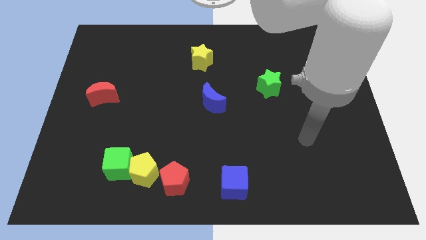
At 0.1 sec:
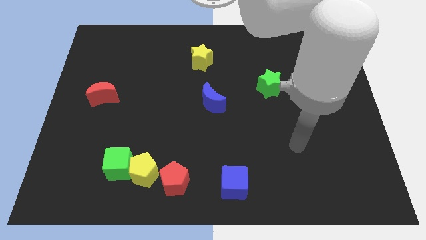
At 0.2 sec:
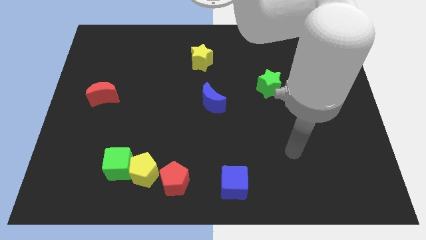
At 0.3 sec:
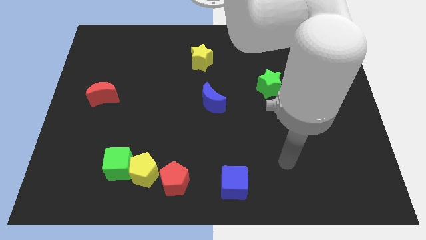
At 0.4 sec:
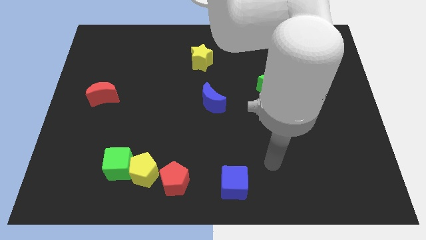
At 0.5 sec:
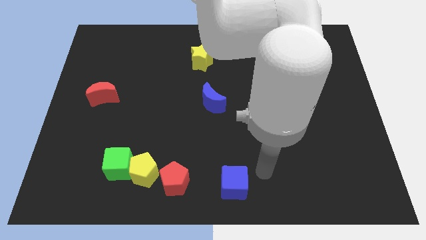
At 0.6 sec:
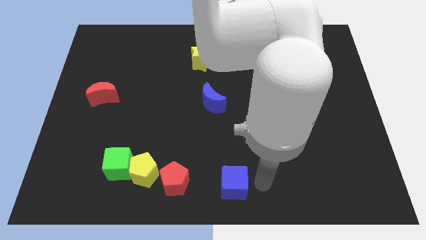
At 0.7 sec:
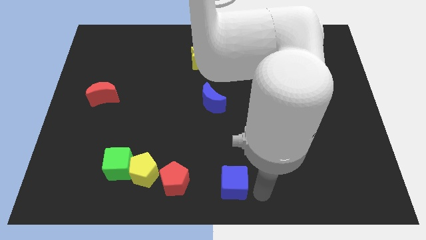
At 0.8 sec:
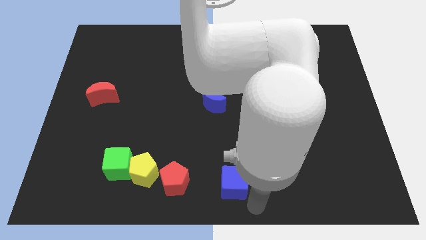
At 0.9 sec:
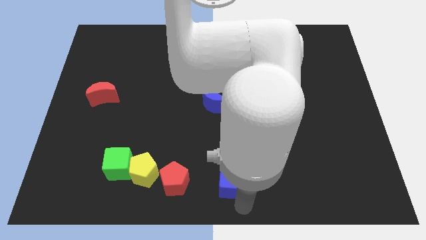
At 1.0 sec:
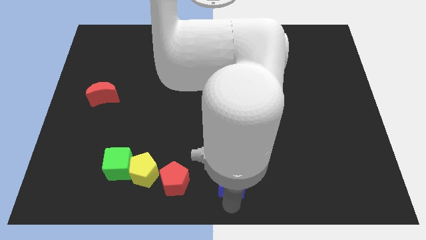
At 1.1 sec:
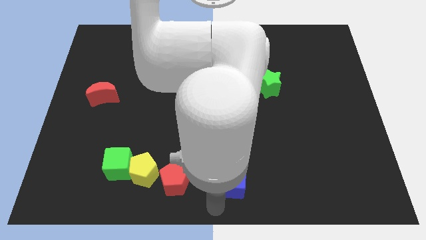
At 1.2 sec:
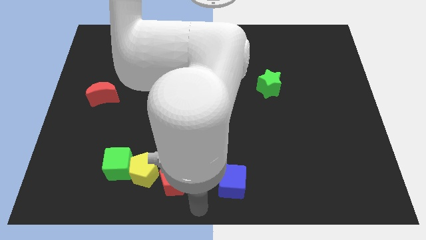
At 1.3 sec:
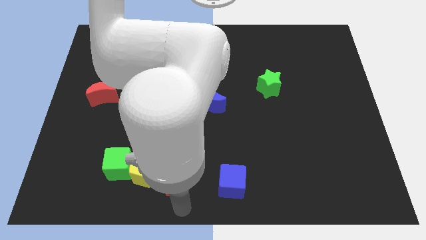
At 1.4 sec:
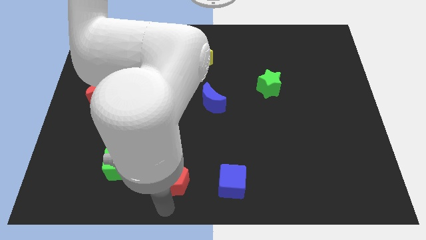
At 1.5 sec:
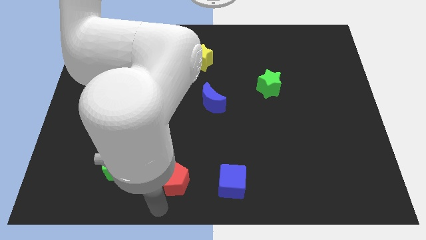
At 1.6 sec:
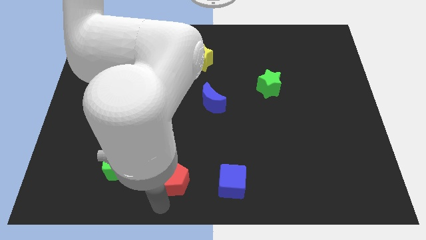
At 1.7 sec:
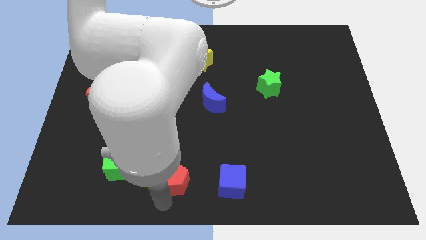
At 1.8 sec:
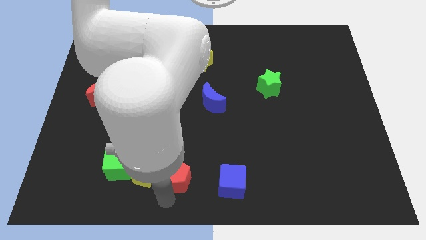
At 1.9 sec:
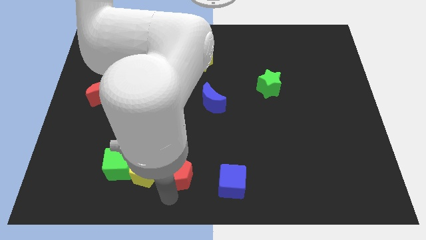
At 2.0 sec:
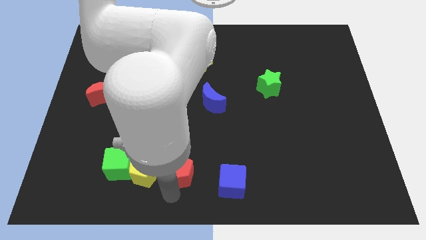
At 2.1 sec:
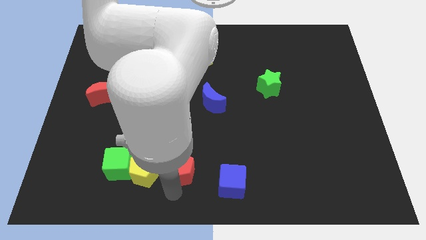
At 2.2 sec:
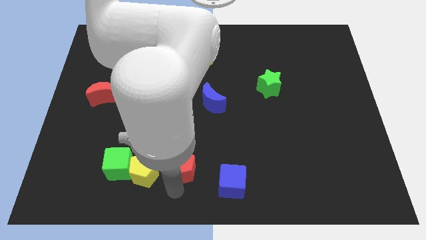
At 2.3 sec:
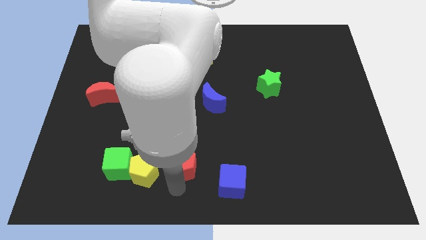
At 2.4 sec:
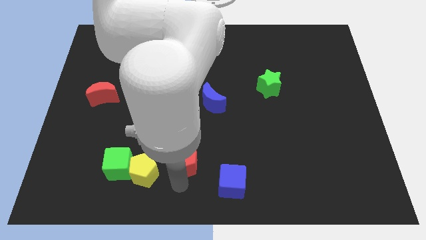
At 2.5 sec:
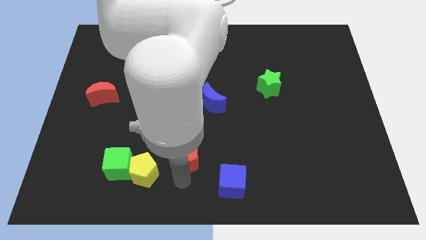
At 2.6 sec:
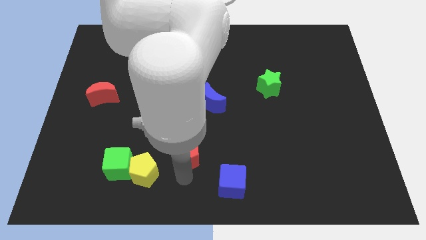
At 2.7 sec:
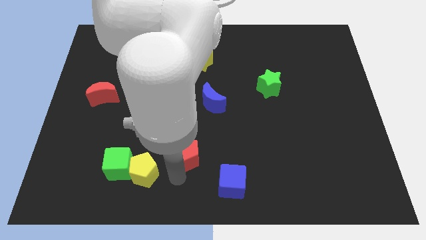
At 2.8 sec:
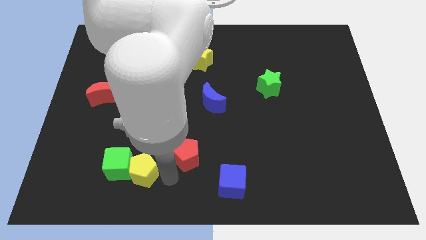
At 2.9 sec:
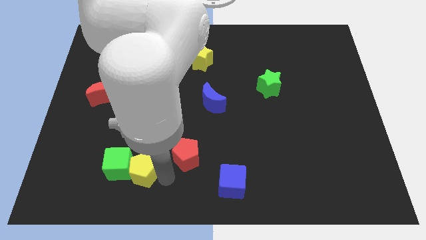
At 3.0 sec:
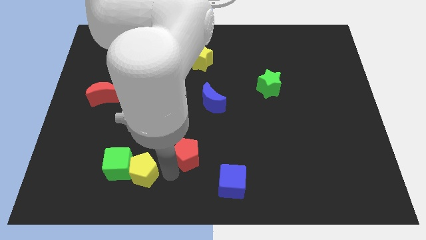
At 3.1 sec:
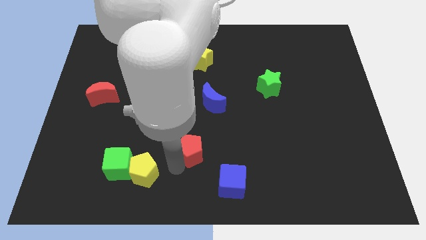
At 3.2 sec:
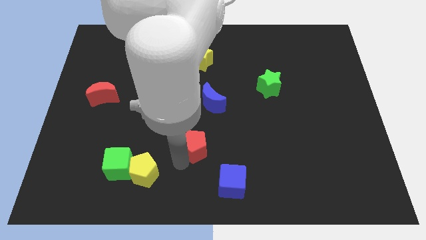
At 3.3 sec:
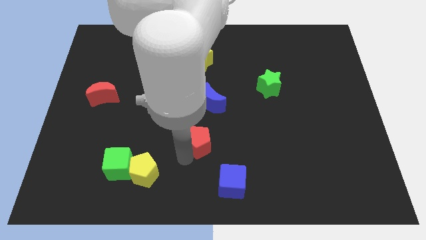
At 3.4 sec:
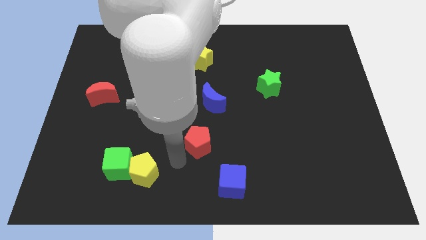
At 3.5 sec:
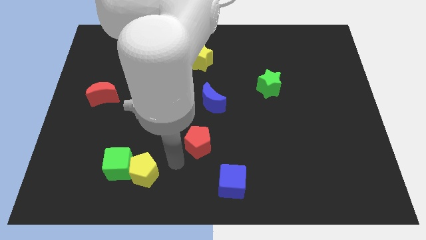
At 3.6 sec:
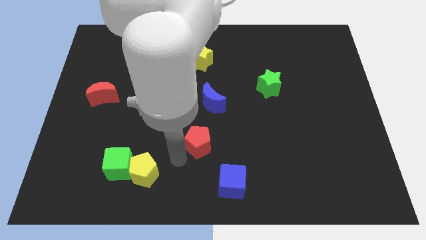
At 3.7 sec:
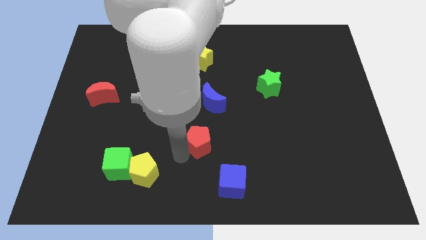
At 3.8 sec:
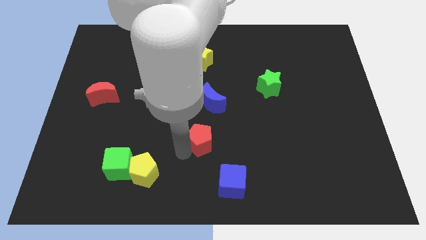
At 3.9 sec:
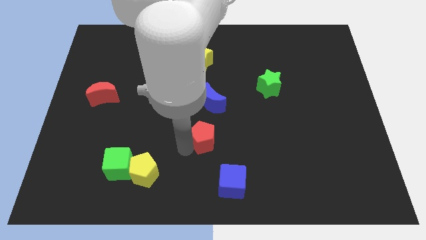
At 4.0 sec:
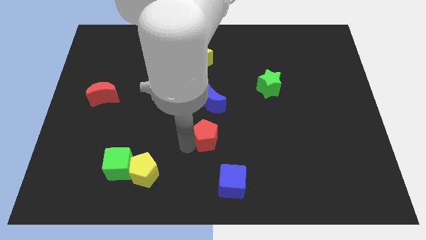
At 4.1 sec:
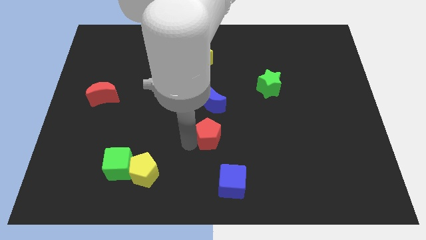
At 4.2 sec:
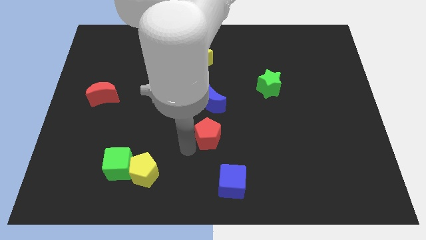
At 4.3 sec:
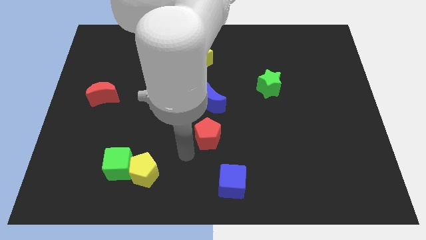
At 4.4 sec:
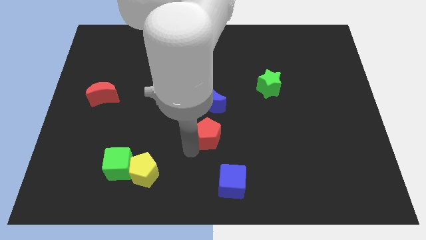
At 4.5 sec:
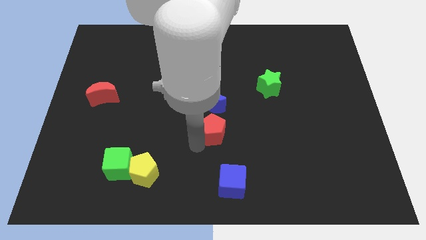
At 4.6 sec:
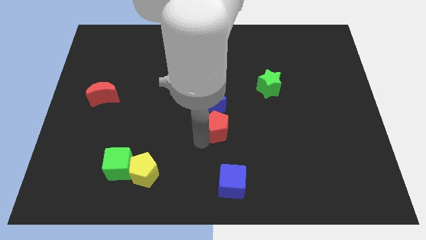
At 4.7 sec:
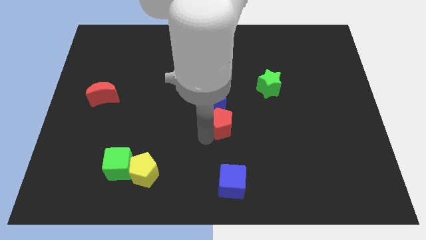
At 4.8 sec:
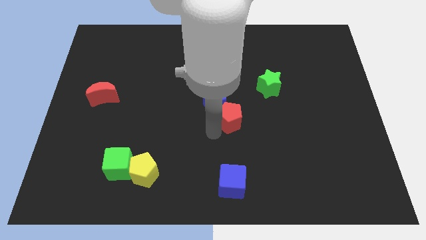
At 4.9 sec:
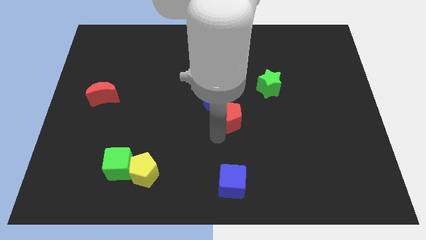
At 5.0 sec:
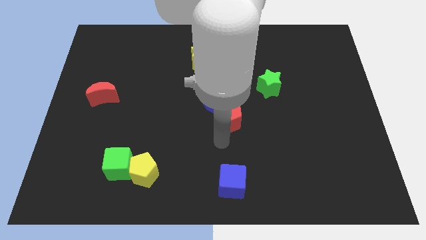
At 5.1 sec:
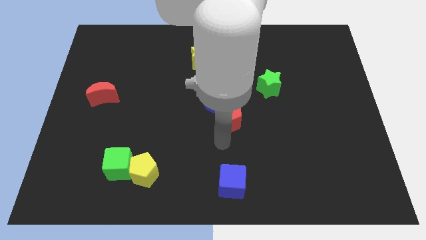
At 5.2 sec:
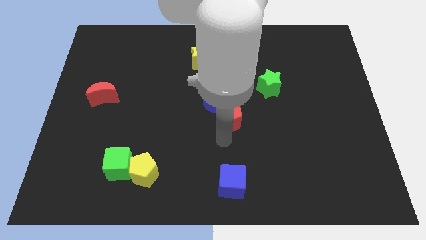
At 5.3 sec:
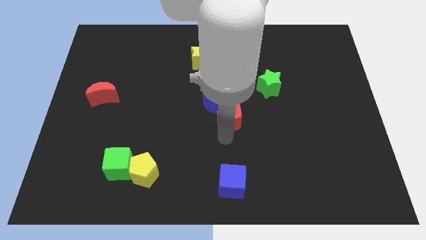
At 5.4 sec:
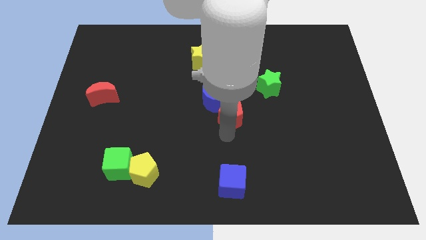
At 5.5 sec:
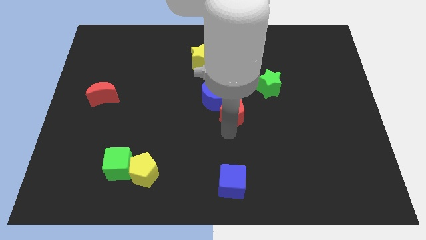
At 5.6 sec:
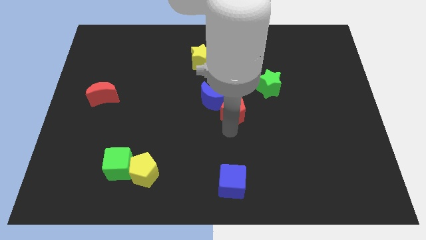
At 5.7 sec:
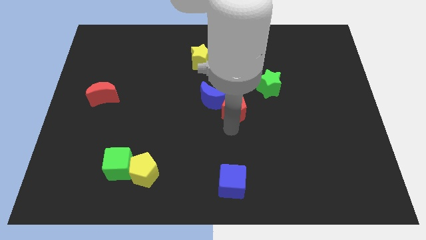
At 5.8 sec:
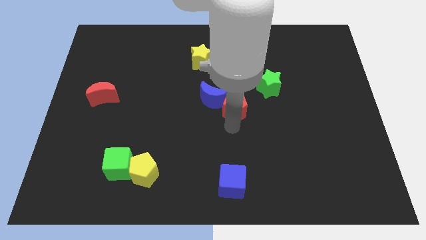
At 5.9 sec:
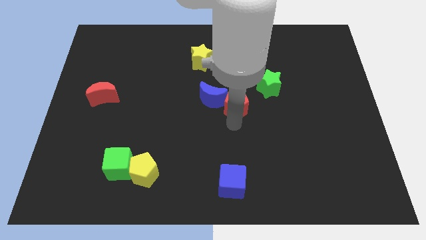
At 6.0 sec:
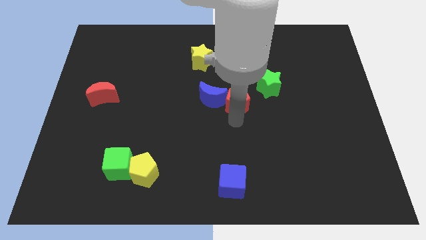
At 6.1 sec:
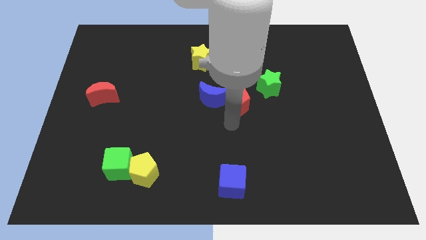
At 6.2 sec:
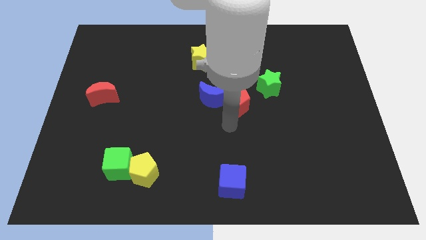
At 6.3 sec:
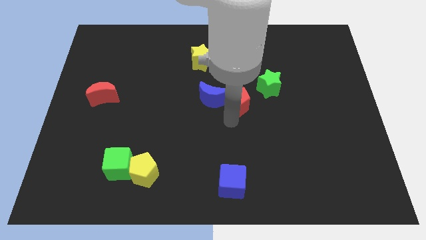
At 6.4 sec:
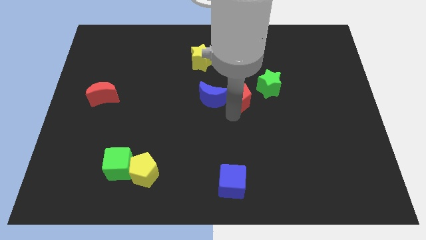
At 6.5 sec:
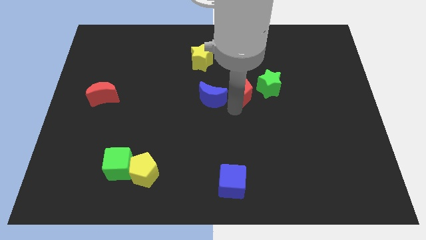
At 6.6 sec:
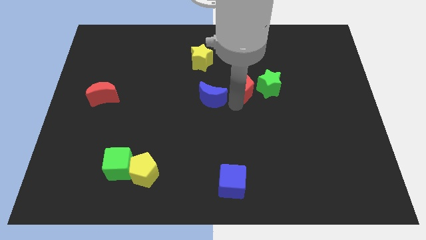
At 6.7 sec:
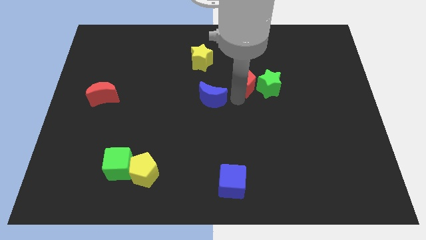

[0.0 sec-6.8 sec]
put the red pentagon diagonally up and to the left of the green star

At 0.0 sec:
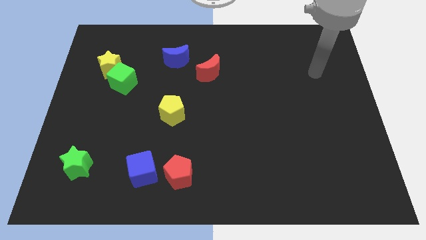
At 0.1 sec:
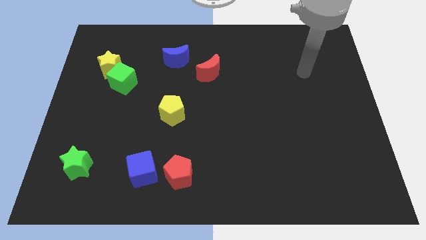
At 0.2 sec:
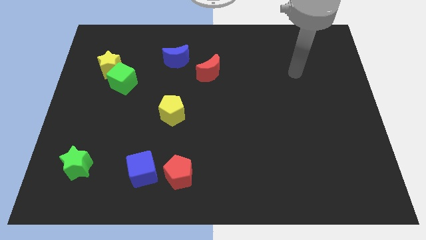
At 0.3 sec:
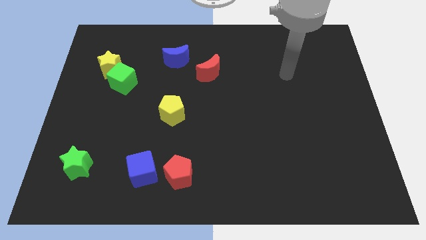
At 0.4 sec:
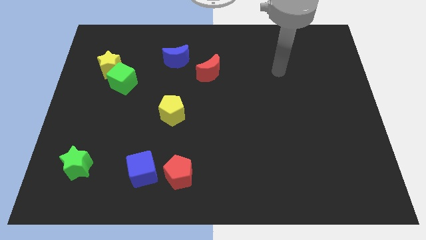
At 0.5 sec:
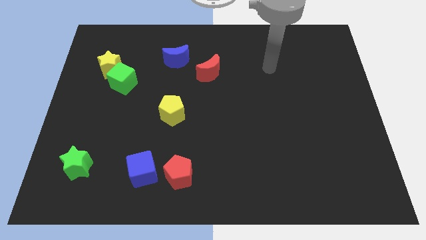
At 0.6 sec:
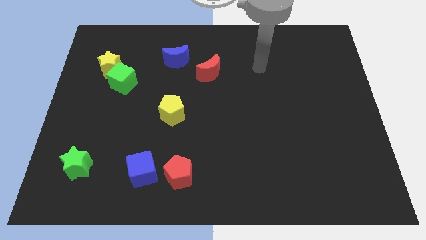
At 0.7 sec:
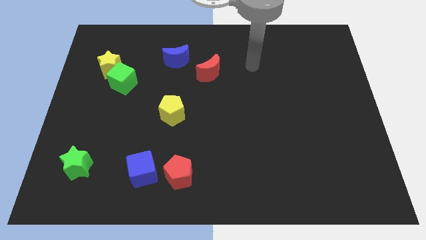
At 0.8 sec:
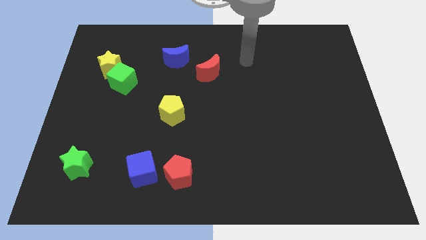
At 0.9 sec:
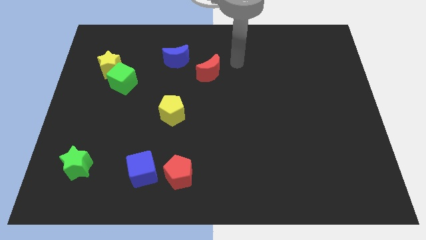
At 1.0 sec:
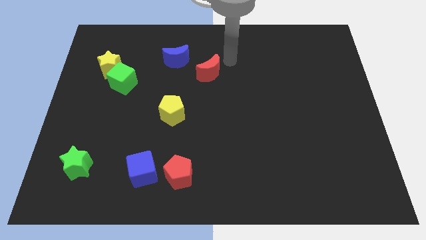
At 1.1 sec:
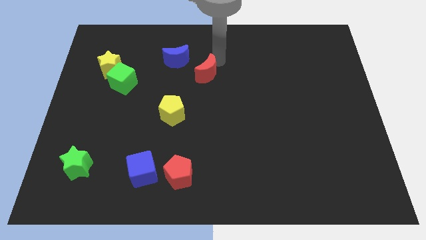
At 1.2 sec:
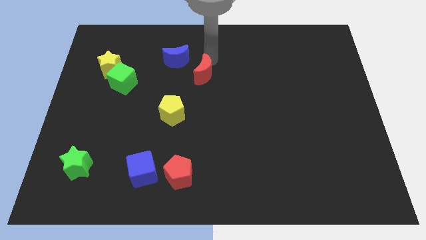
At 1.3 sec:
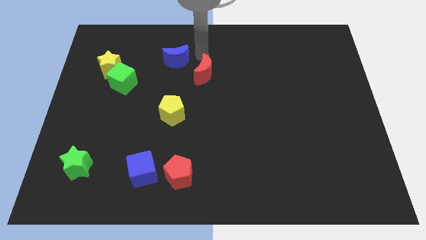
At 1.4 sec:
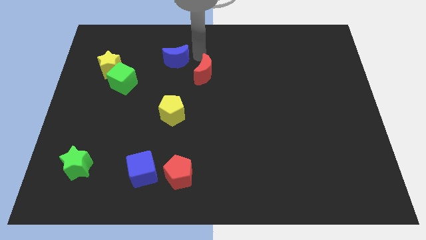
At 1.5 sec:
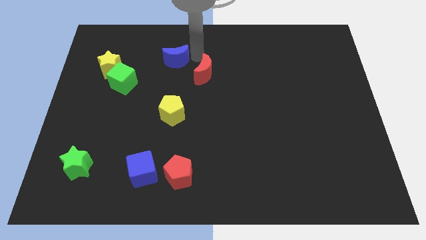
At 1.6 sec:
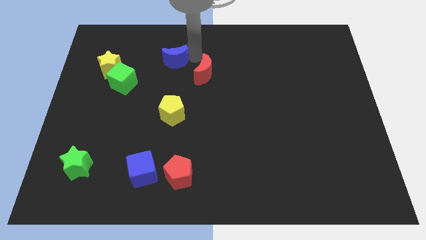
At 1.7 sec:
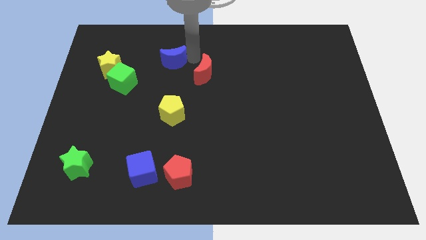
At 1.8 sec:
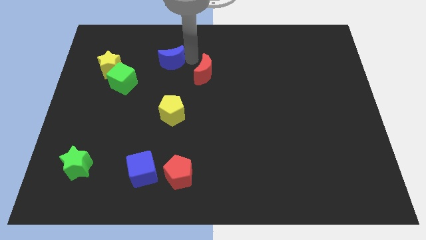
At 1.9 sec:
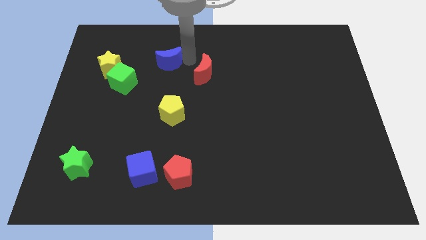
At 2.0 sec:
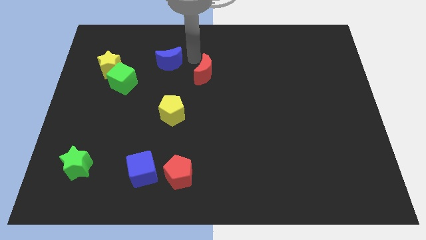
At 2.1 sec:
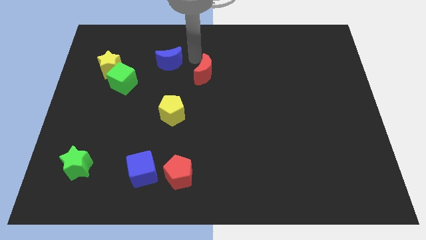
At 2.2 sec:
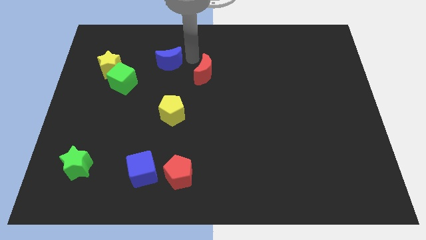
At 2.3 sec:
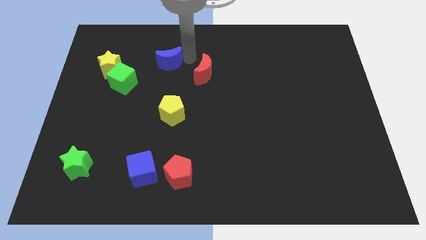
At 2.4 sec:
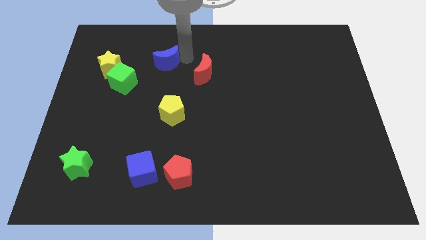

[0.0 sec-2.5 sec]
slide the blue moon to the top right of the green cube
